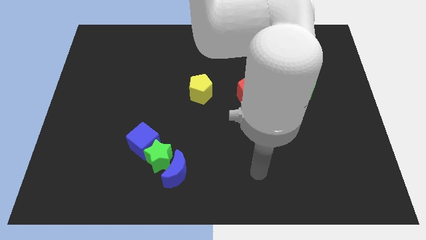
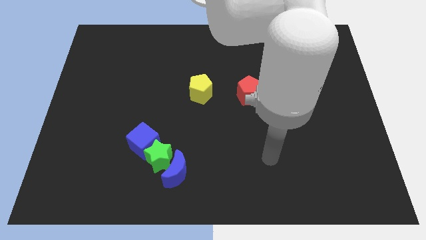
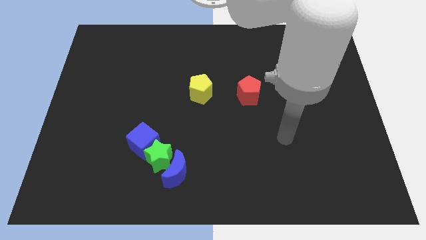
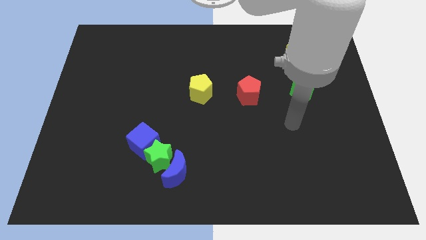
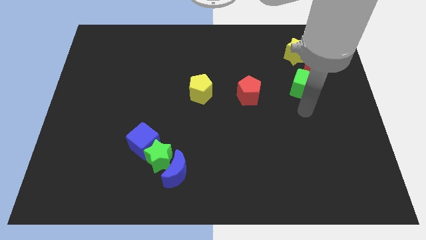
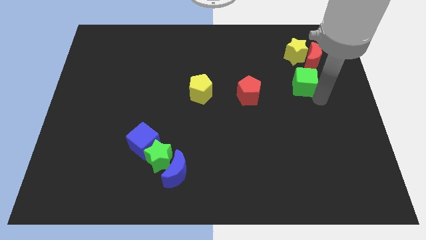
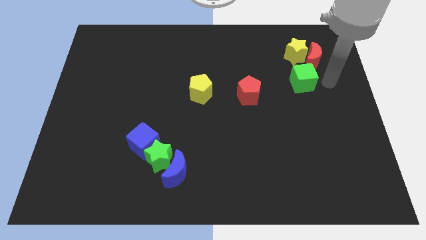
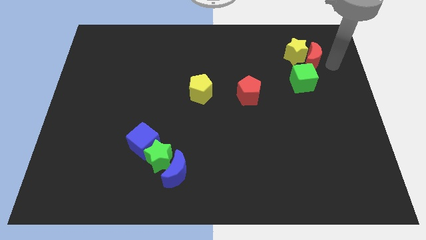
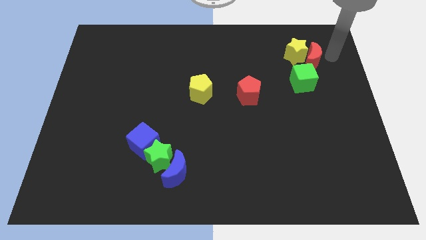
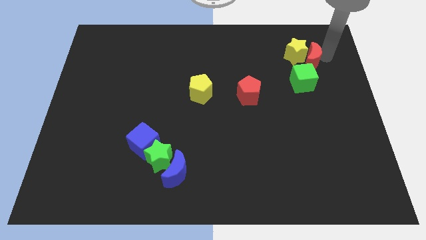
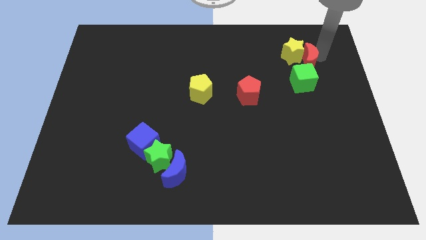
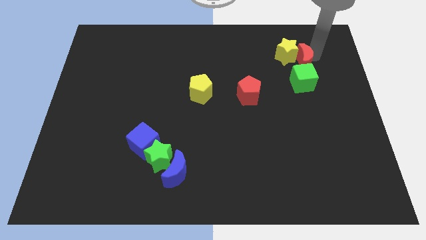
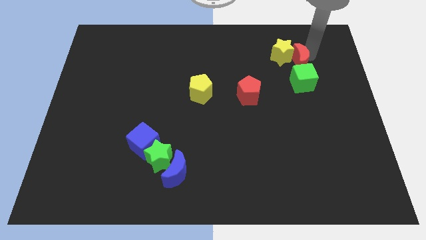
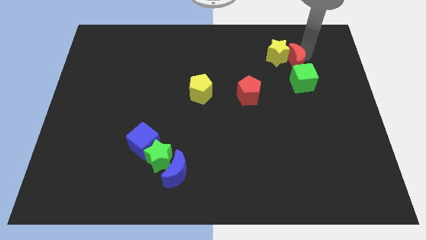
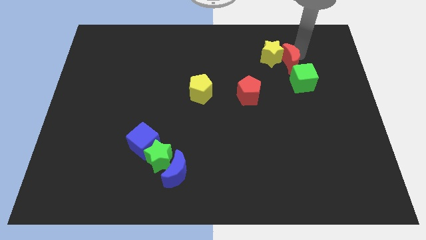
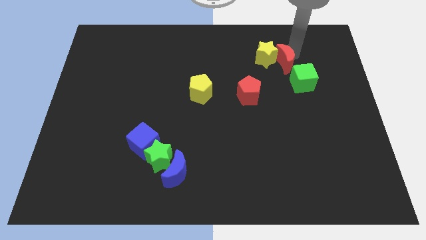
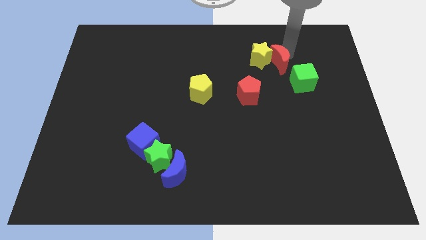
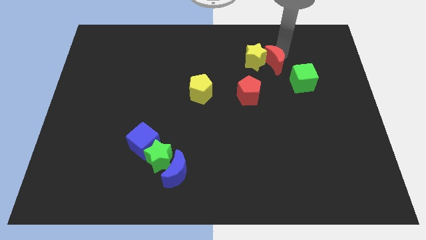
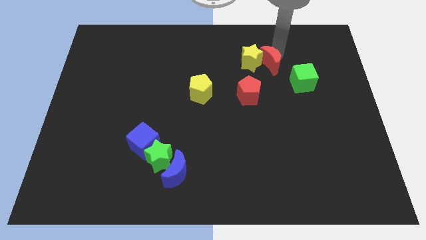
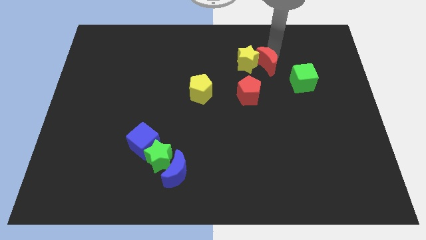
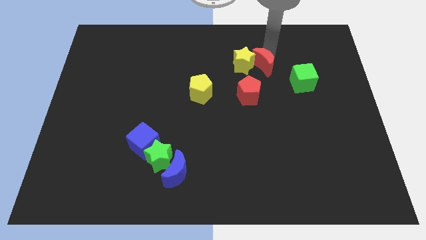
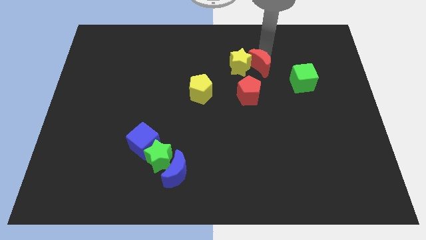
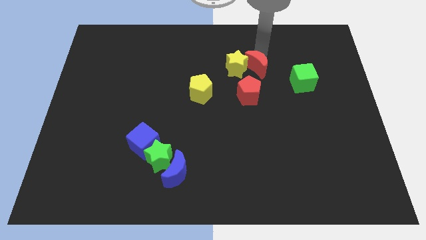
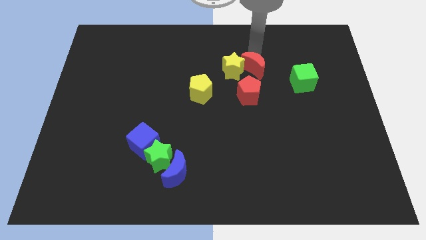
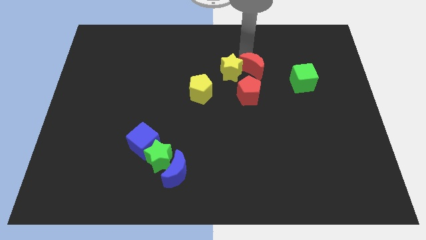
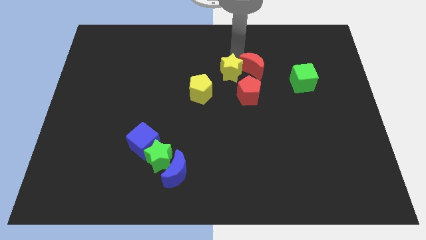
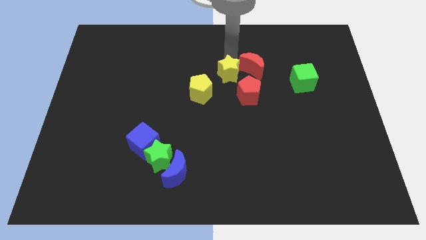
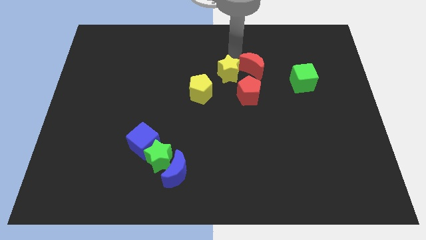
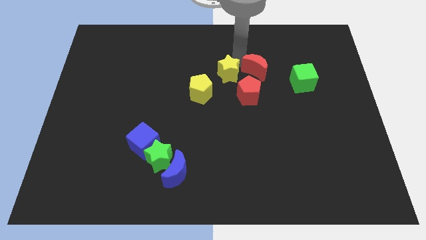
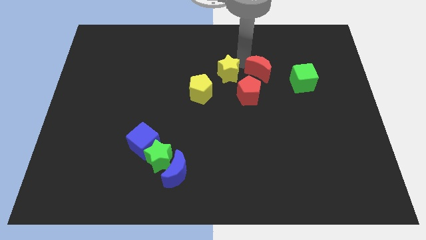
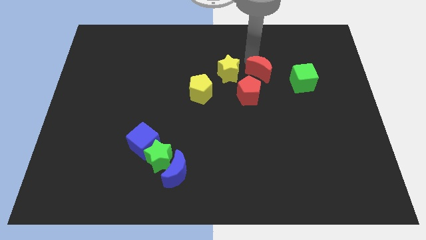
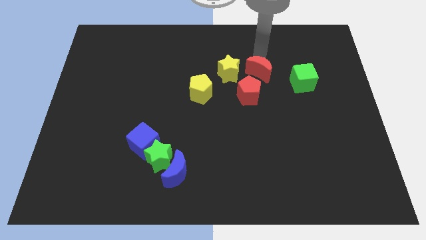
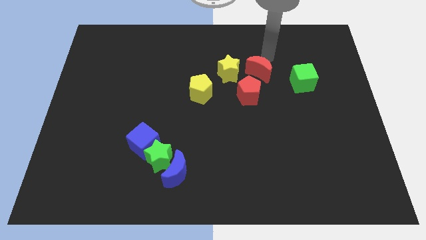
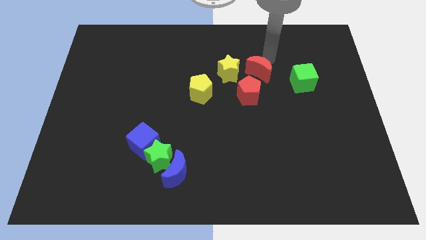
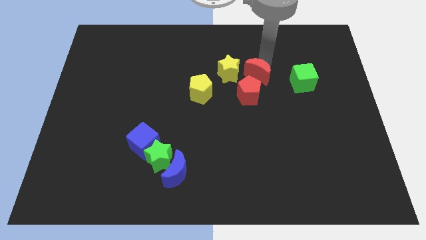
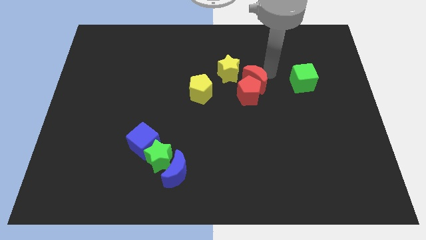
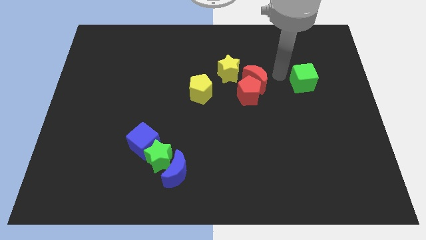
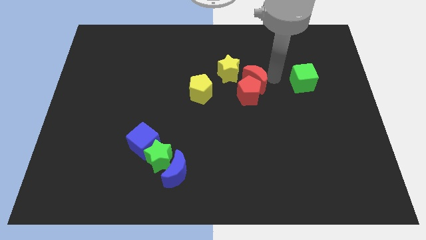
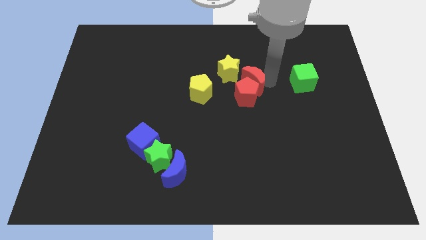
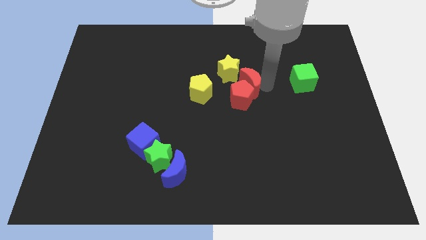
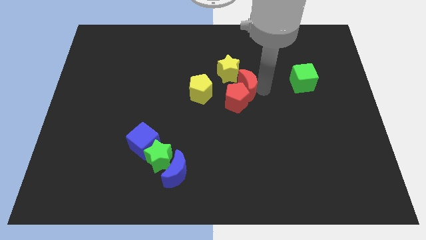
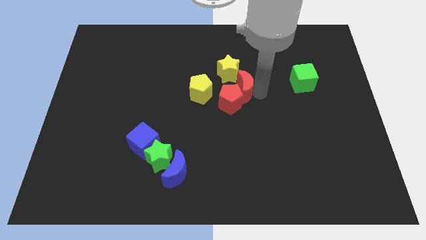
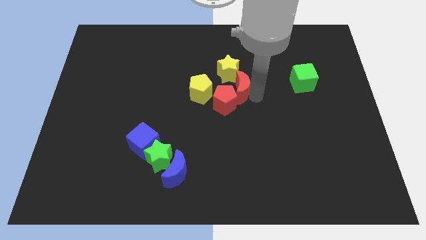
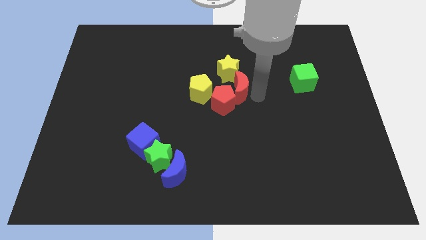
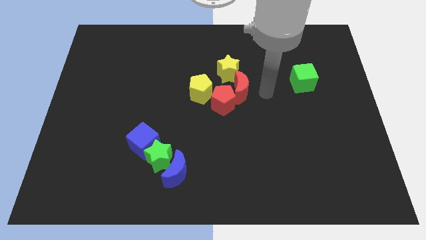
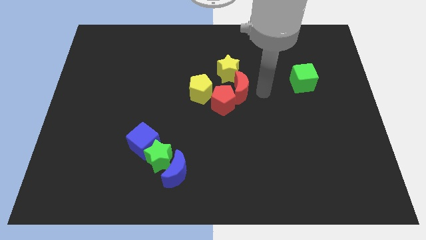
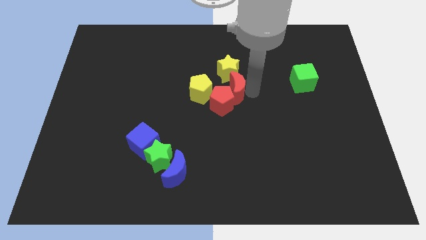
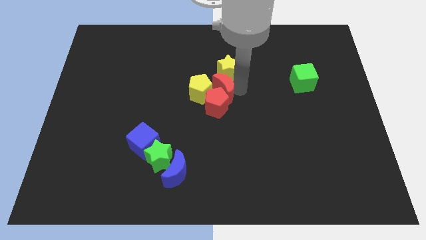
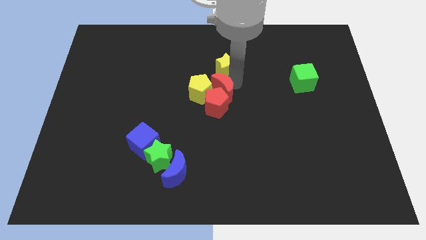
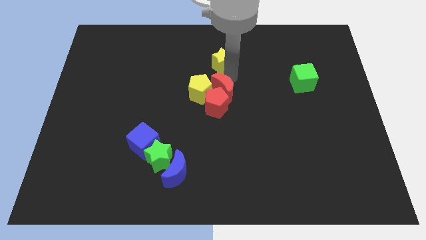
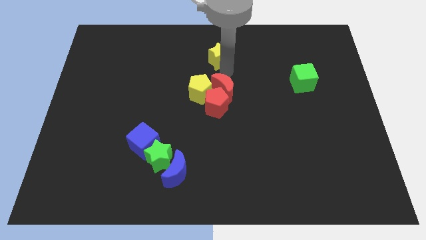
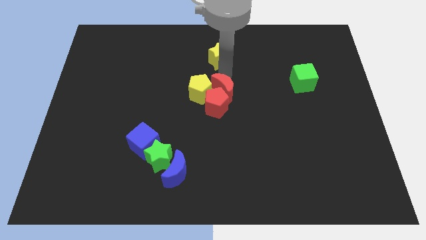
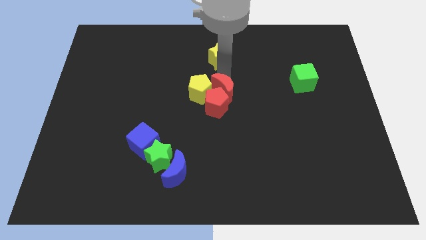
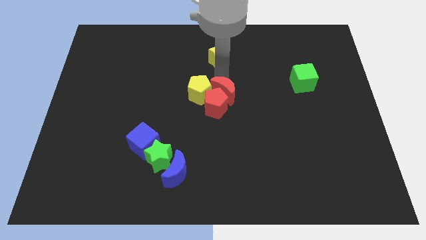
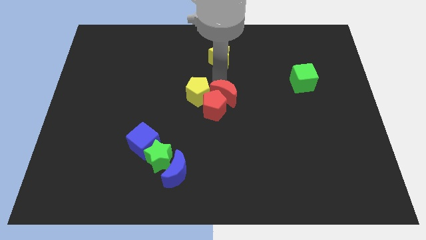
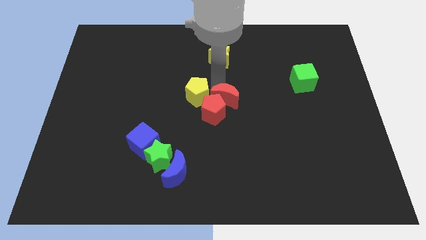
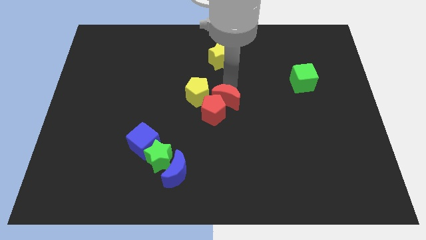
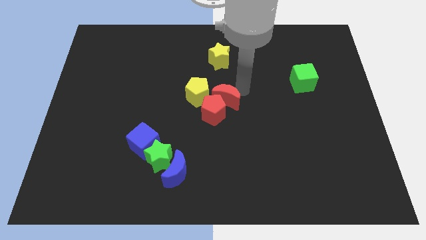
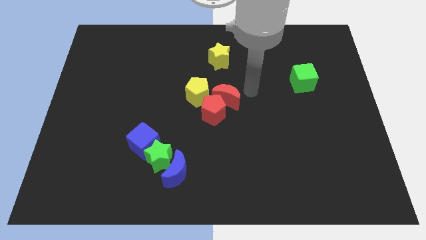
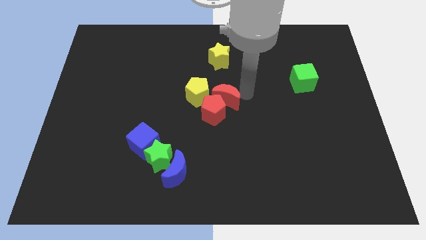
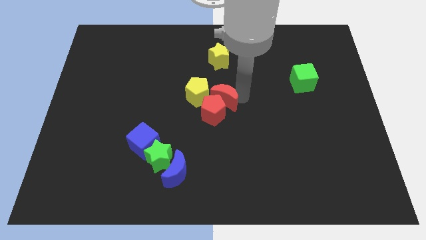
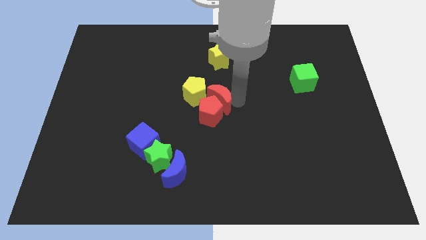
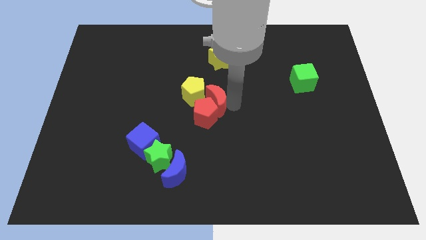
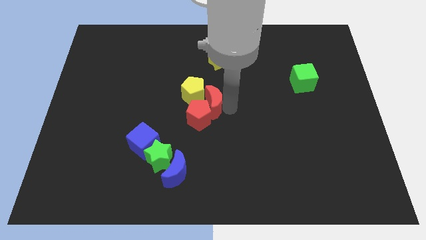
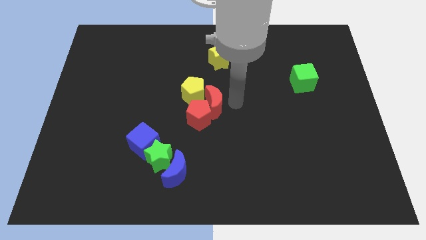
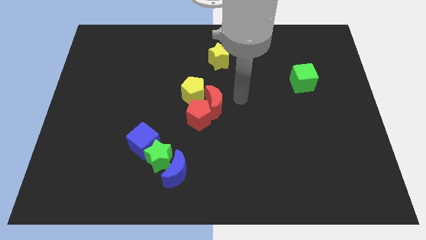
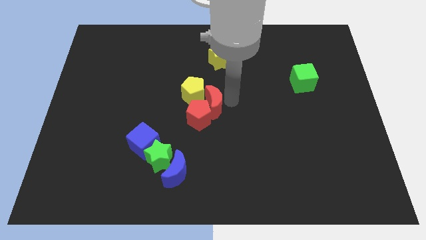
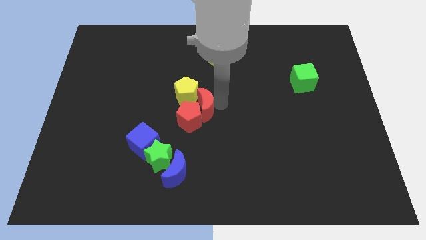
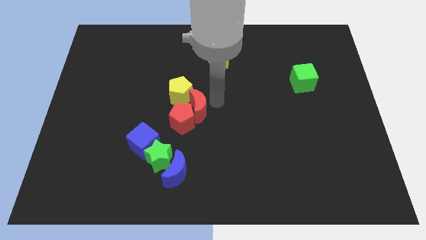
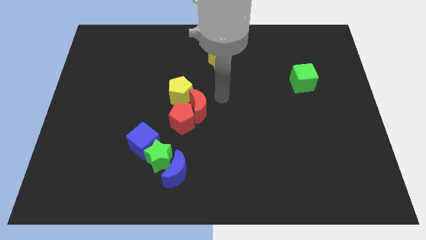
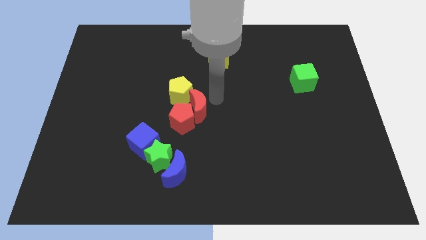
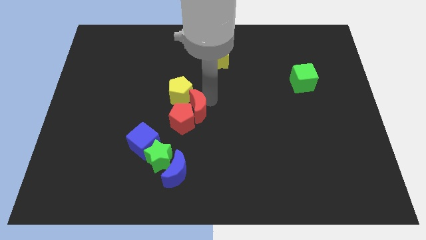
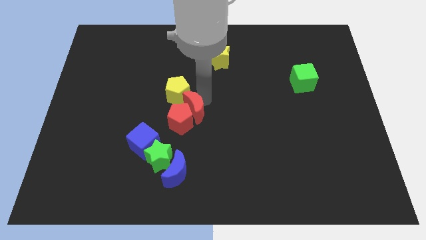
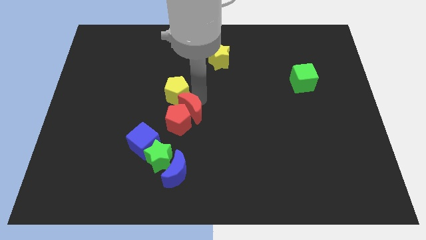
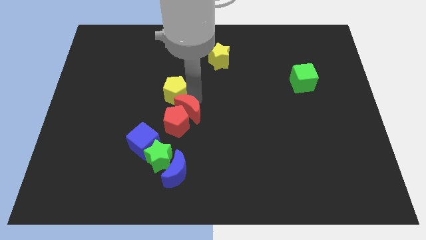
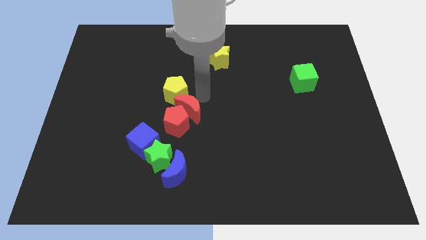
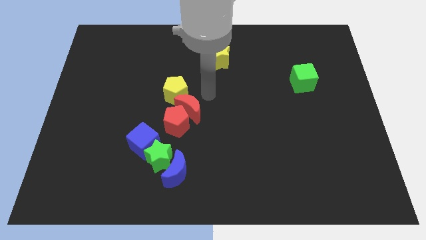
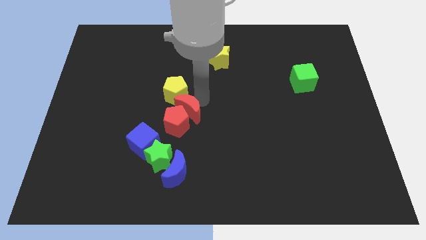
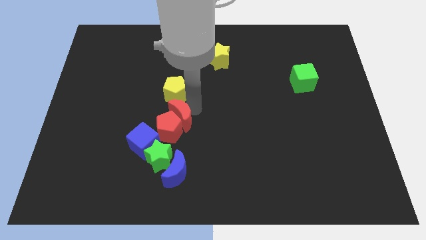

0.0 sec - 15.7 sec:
push the red moon above the green star
